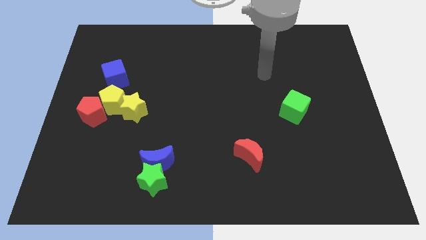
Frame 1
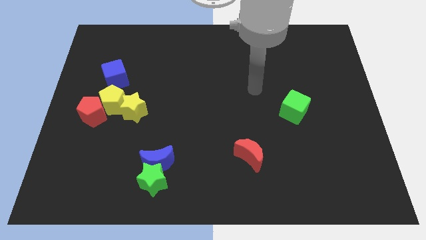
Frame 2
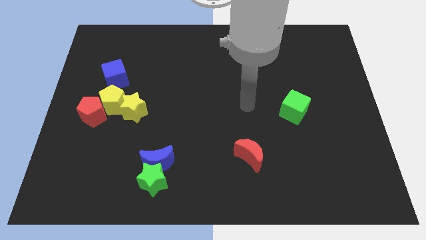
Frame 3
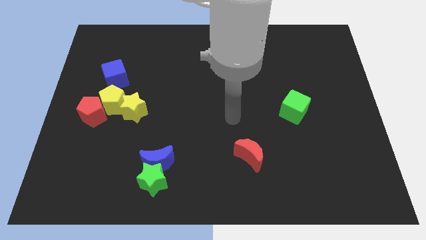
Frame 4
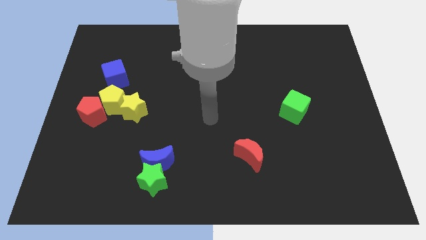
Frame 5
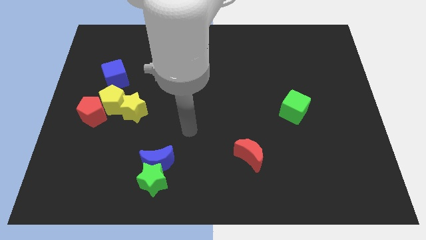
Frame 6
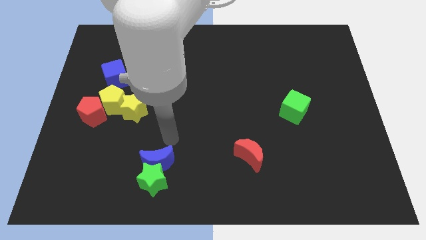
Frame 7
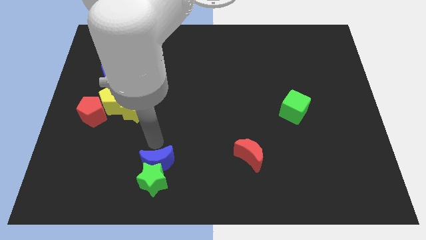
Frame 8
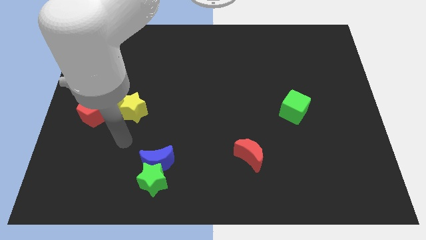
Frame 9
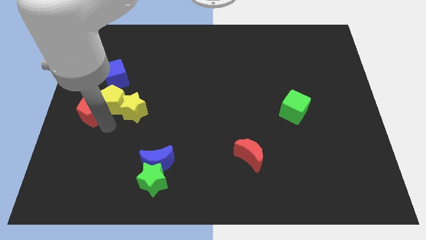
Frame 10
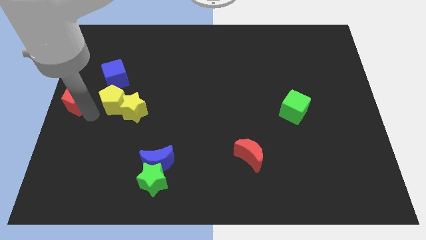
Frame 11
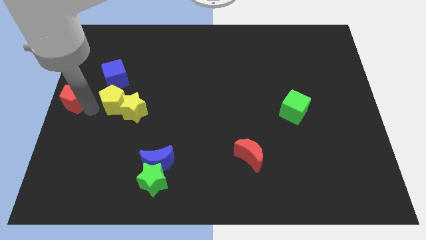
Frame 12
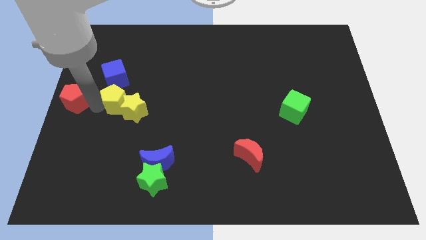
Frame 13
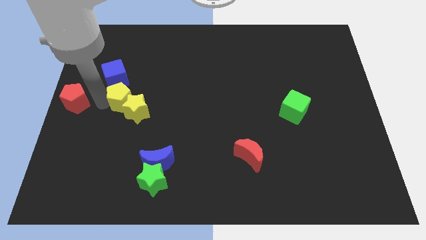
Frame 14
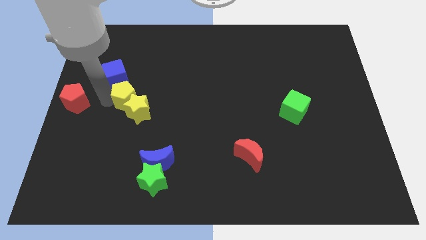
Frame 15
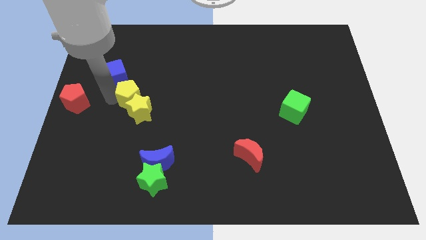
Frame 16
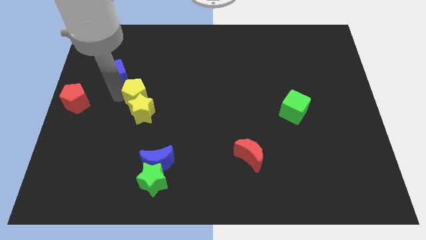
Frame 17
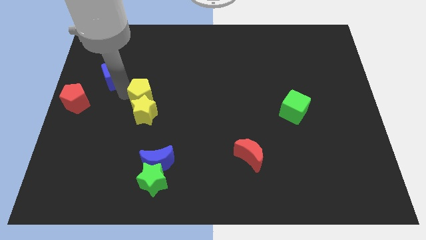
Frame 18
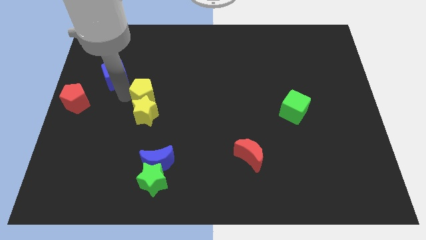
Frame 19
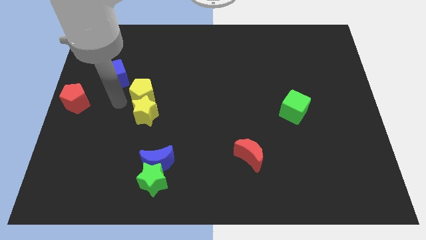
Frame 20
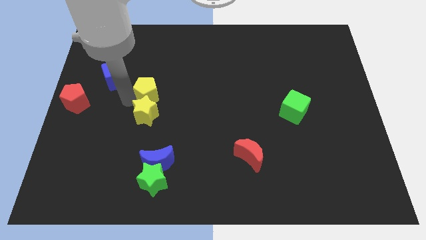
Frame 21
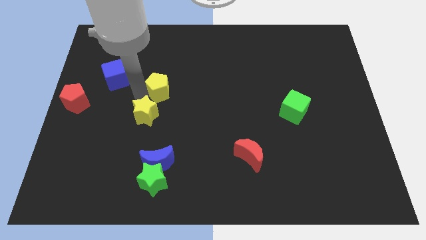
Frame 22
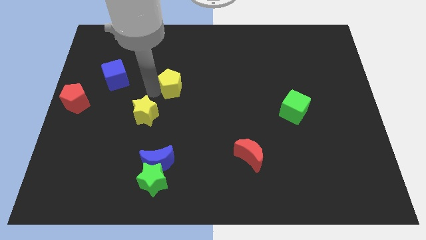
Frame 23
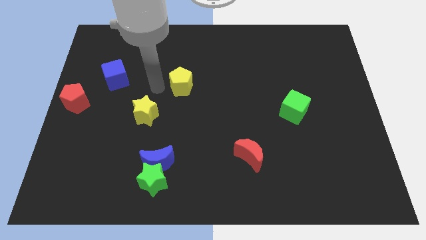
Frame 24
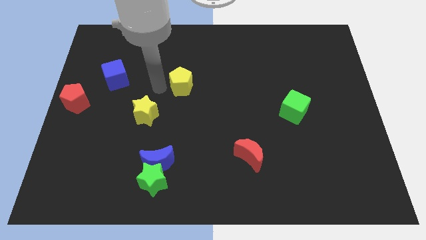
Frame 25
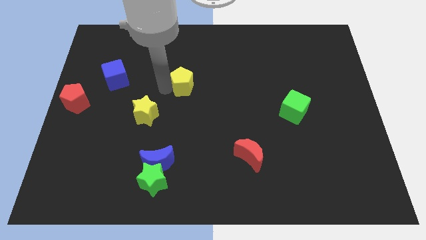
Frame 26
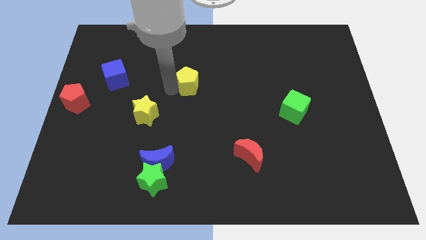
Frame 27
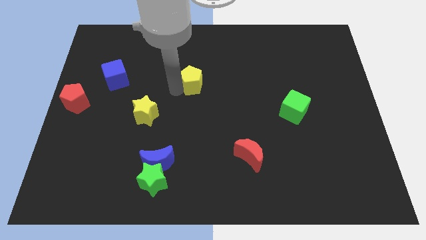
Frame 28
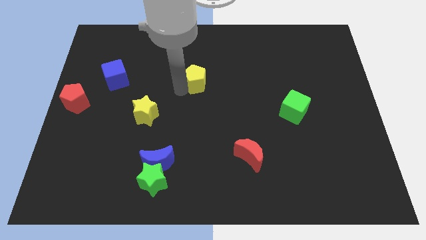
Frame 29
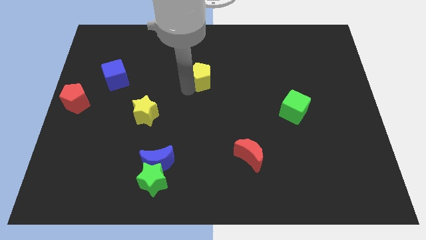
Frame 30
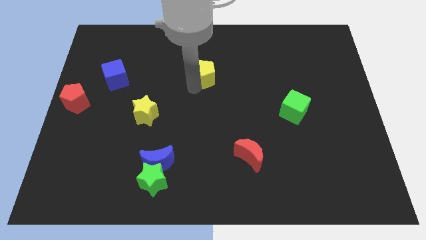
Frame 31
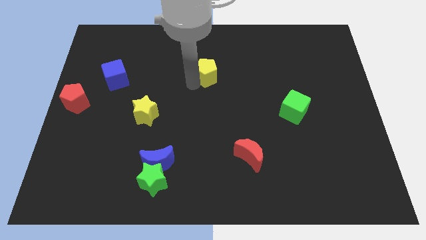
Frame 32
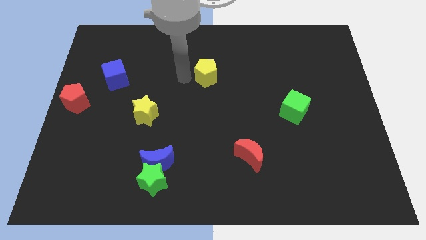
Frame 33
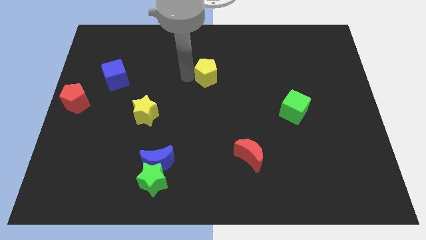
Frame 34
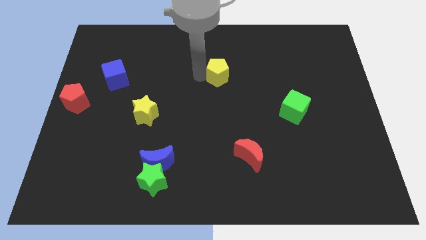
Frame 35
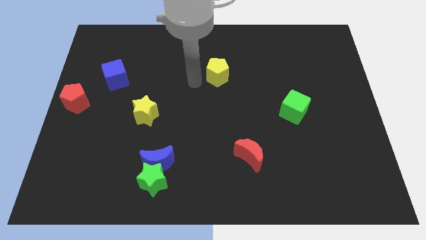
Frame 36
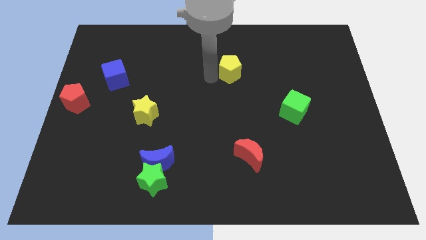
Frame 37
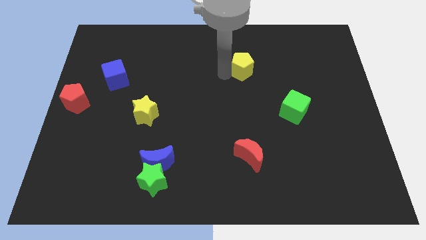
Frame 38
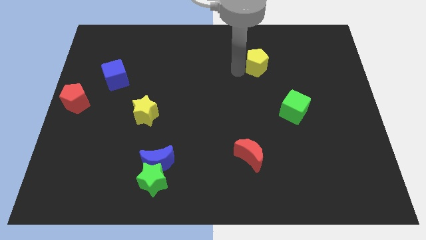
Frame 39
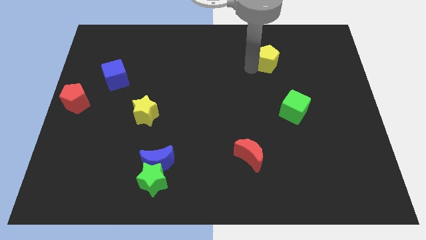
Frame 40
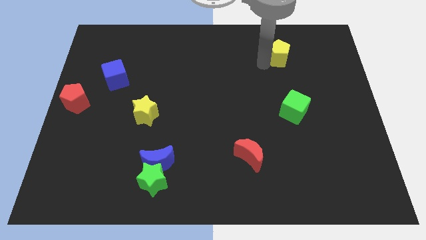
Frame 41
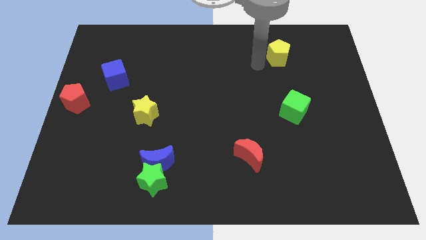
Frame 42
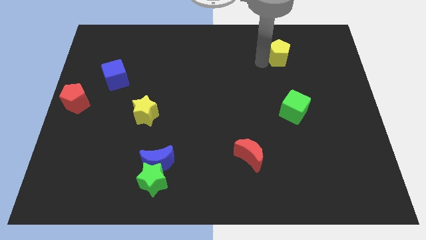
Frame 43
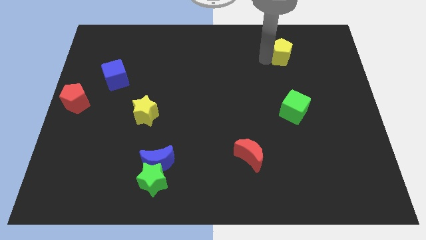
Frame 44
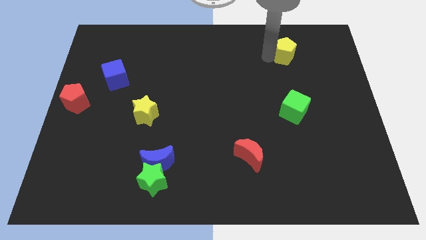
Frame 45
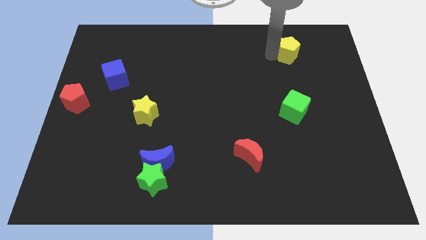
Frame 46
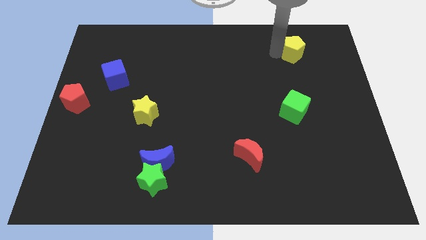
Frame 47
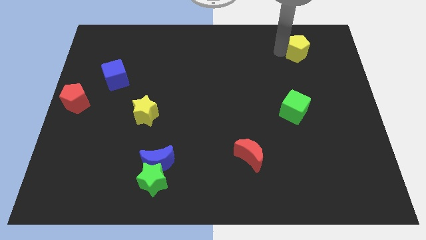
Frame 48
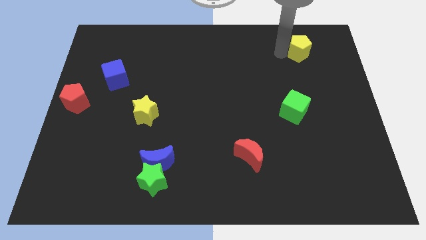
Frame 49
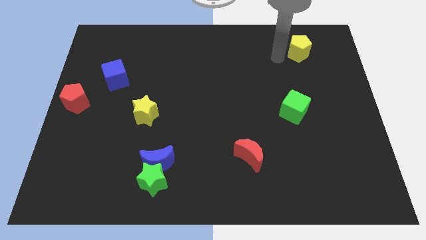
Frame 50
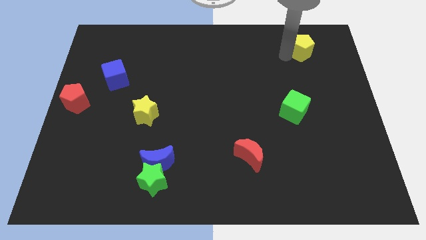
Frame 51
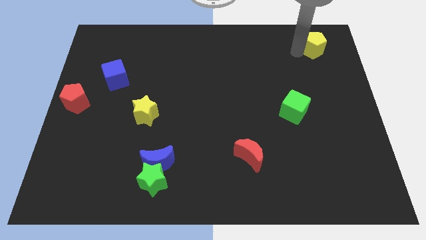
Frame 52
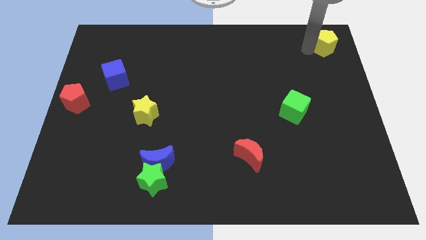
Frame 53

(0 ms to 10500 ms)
push the yellow pentagon to the top right

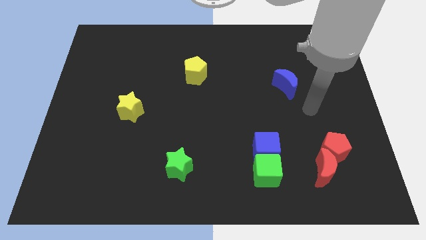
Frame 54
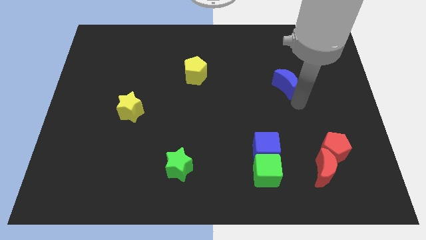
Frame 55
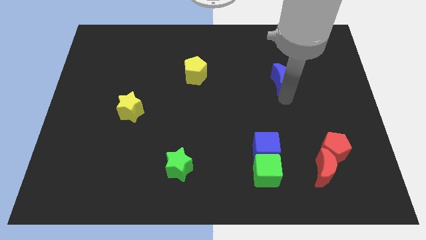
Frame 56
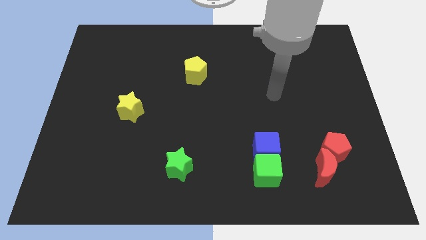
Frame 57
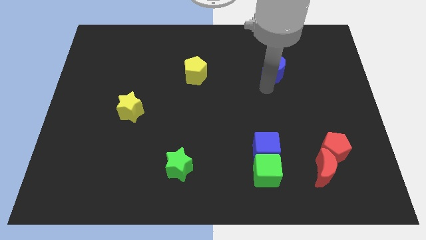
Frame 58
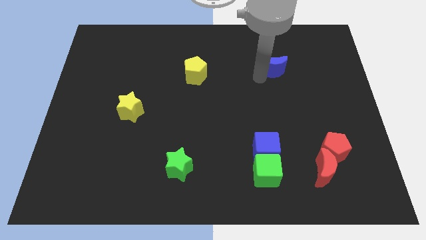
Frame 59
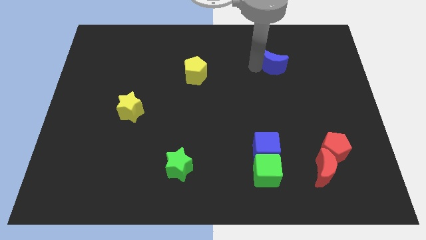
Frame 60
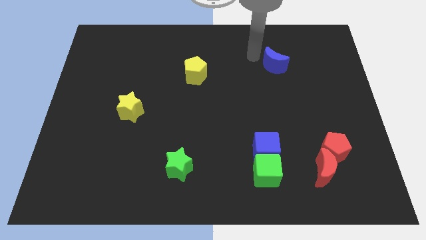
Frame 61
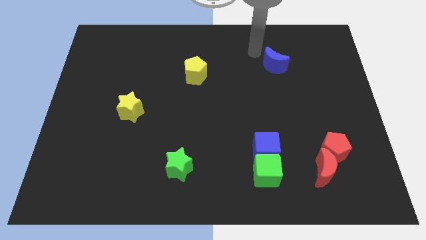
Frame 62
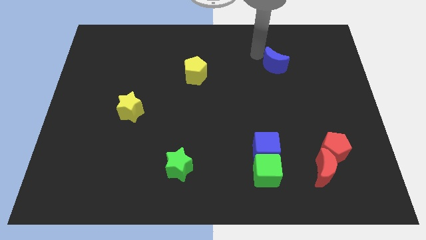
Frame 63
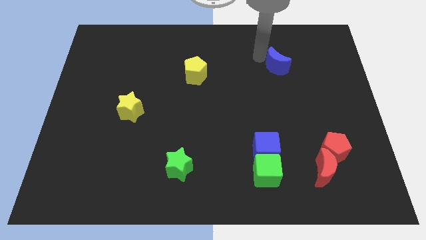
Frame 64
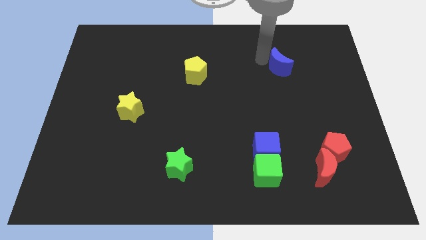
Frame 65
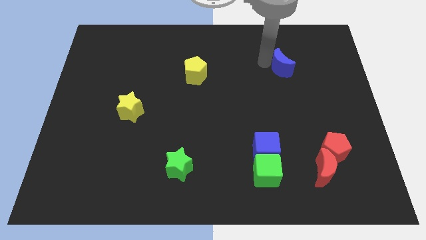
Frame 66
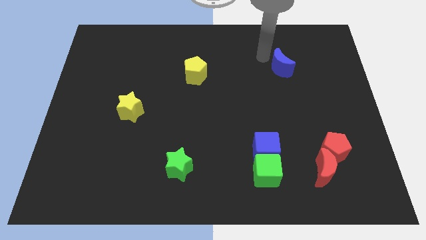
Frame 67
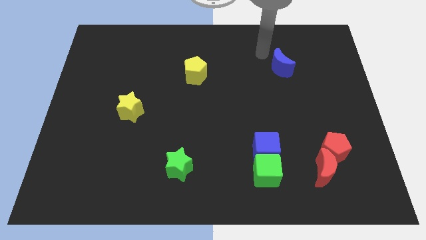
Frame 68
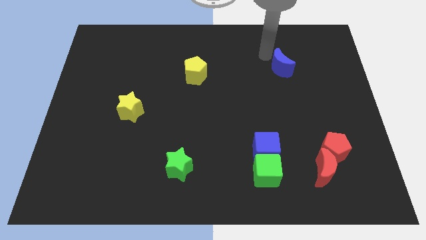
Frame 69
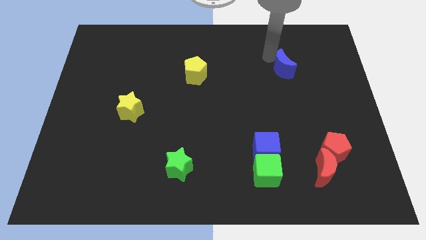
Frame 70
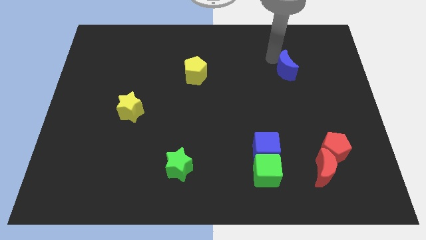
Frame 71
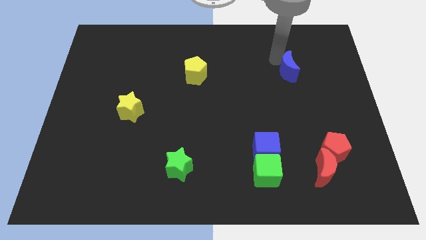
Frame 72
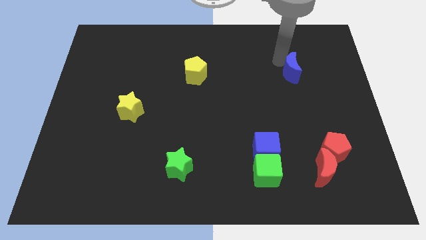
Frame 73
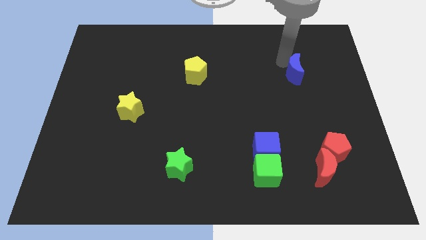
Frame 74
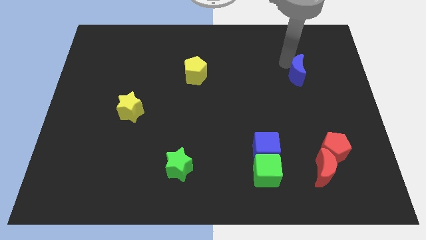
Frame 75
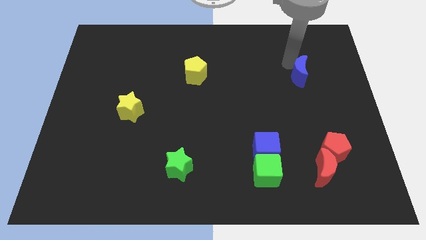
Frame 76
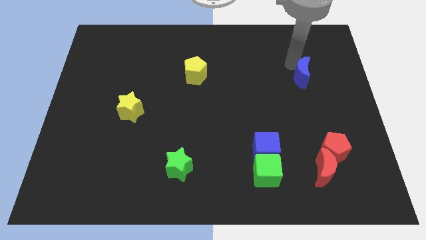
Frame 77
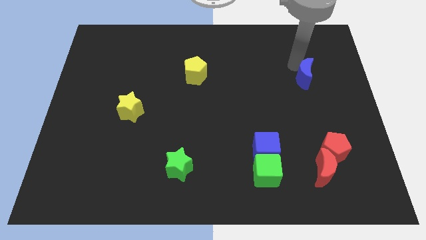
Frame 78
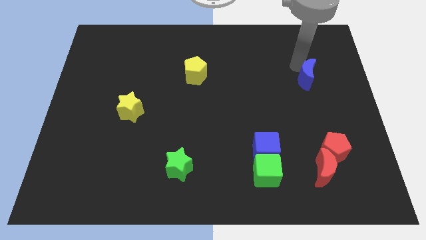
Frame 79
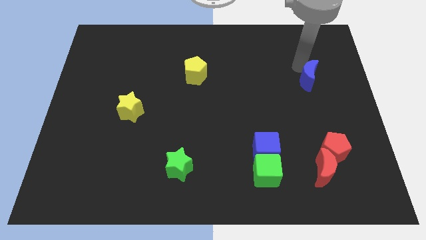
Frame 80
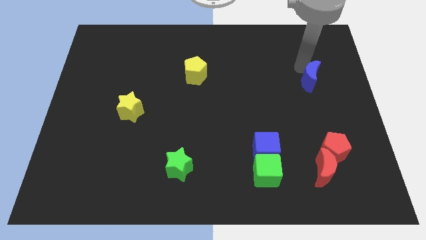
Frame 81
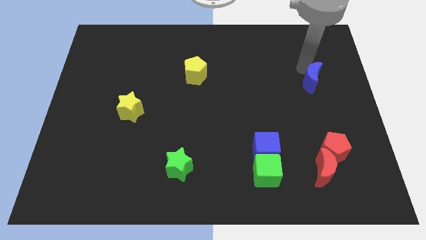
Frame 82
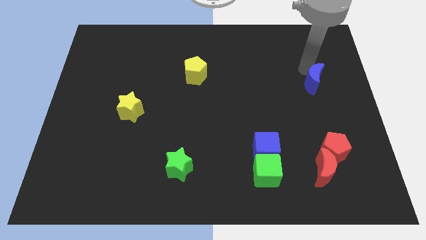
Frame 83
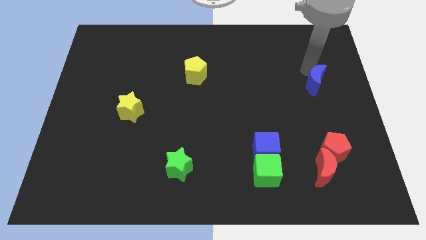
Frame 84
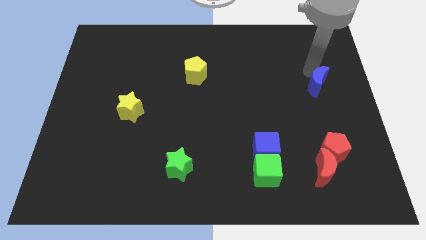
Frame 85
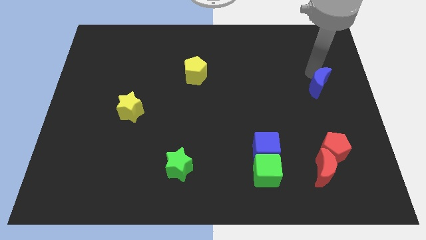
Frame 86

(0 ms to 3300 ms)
slide the blue moon to the right side
